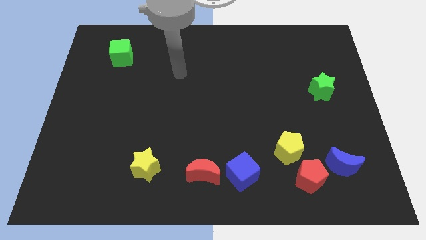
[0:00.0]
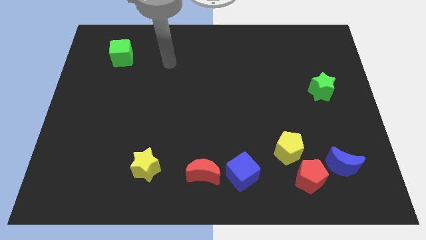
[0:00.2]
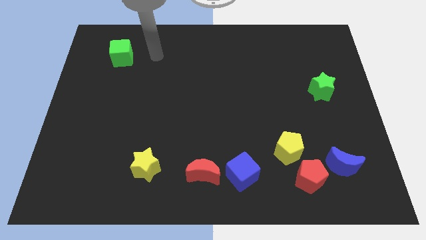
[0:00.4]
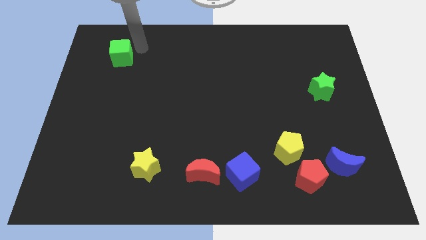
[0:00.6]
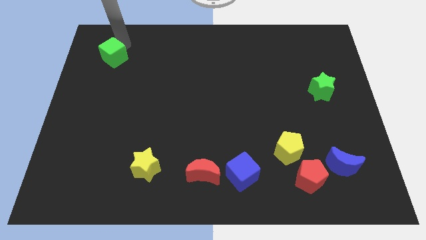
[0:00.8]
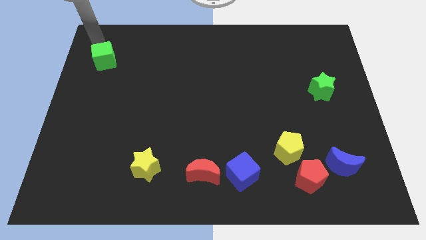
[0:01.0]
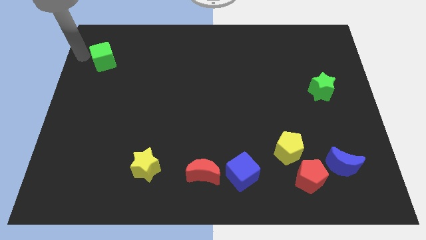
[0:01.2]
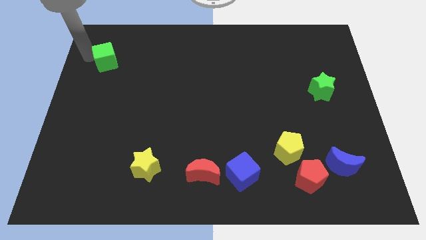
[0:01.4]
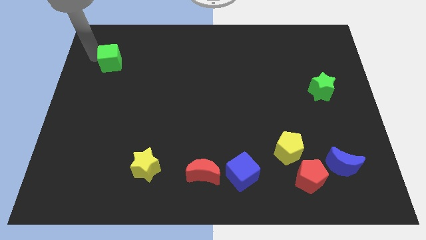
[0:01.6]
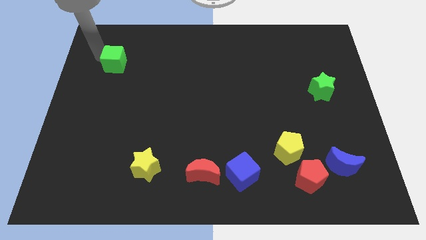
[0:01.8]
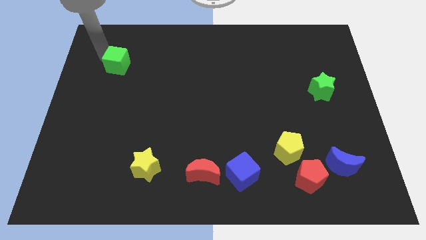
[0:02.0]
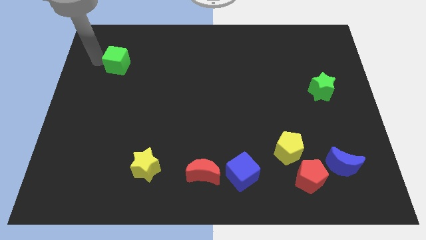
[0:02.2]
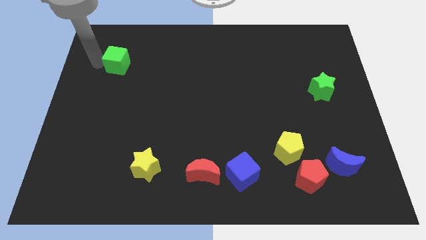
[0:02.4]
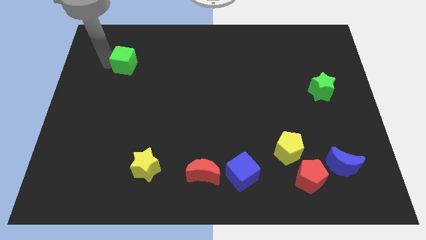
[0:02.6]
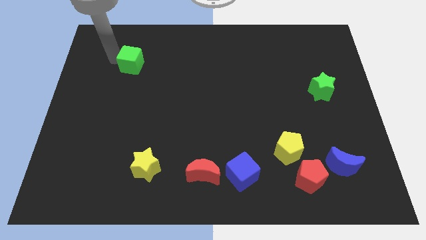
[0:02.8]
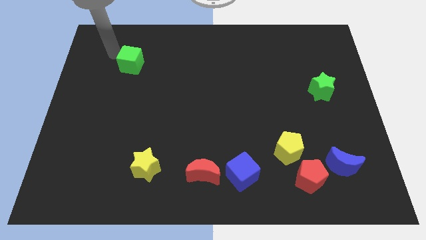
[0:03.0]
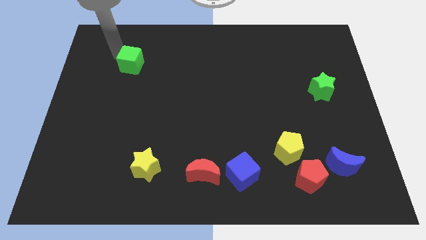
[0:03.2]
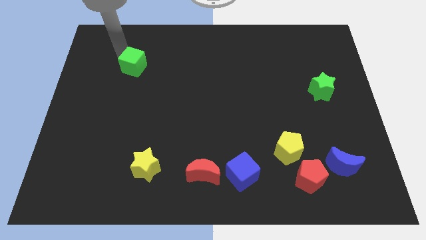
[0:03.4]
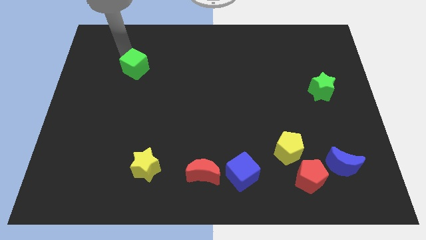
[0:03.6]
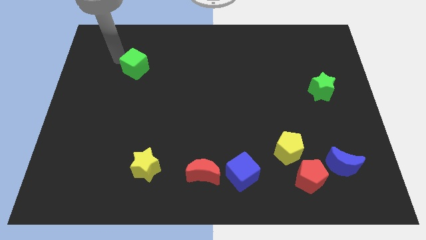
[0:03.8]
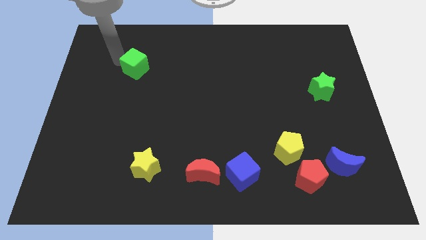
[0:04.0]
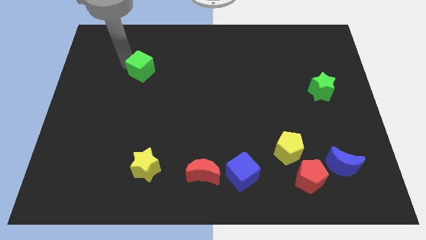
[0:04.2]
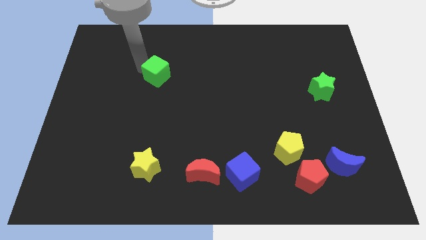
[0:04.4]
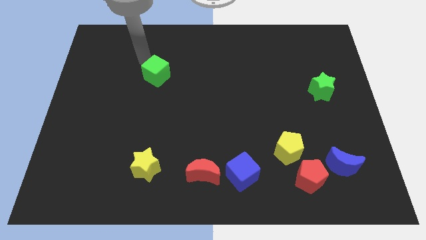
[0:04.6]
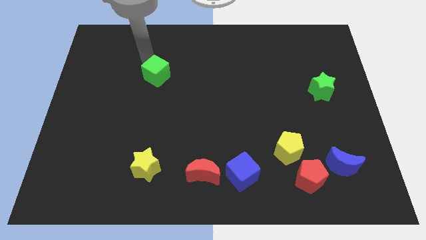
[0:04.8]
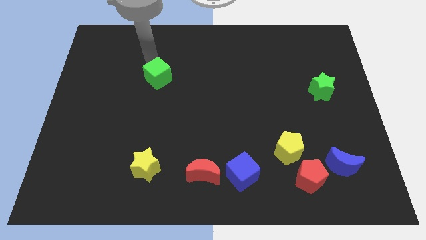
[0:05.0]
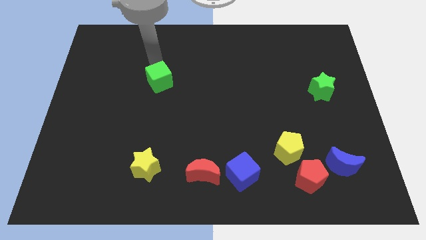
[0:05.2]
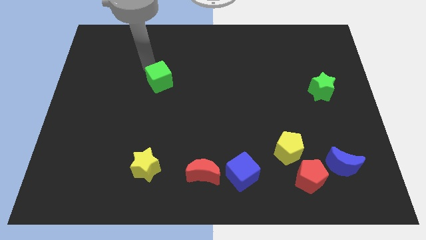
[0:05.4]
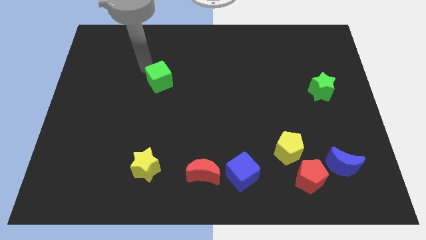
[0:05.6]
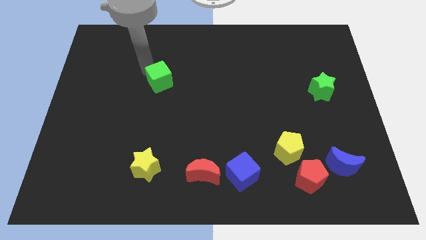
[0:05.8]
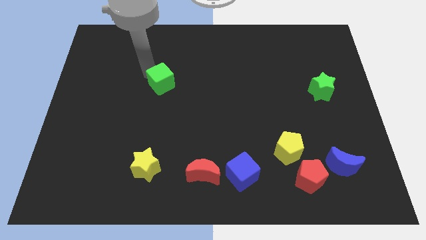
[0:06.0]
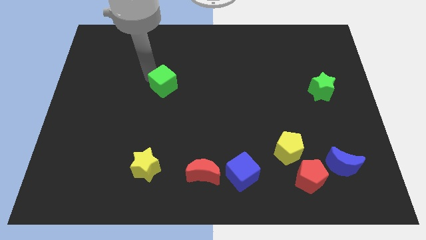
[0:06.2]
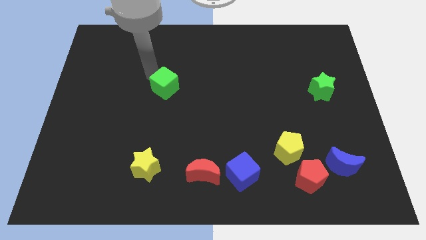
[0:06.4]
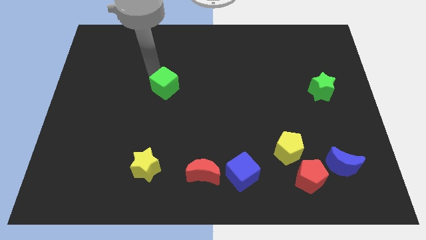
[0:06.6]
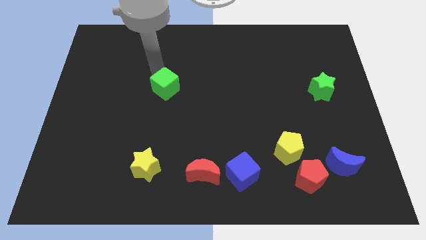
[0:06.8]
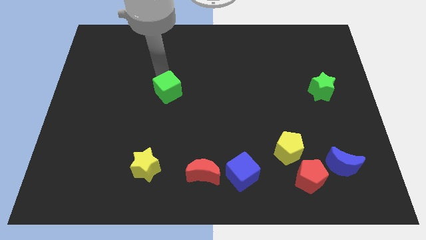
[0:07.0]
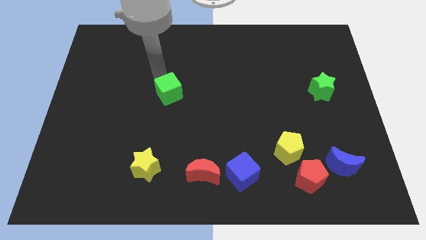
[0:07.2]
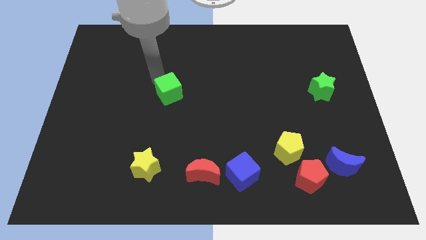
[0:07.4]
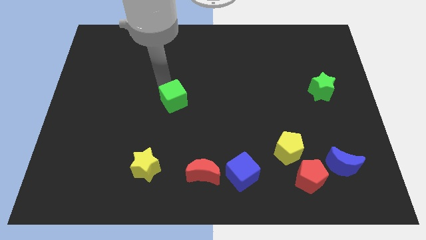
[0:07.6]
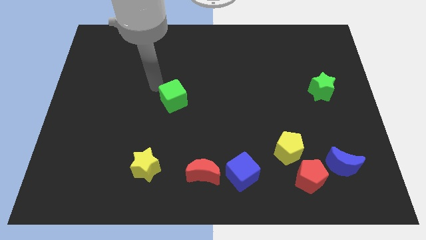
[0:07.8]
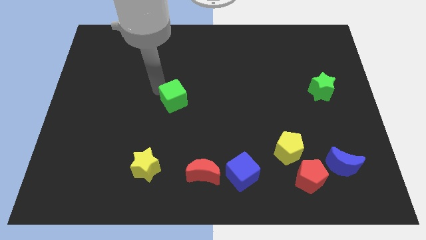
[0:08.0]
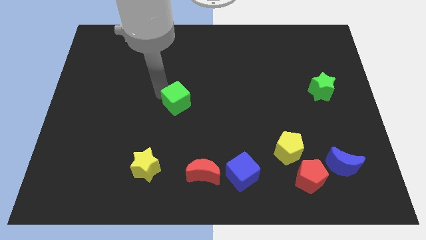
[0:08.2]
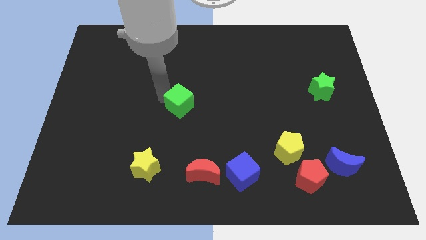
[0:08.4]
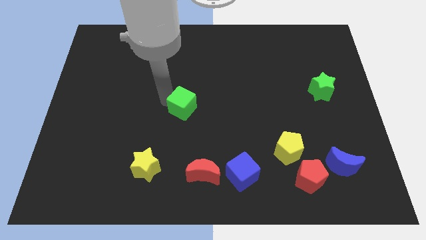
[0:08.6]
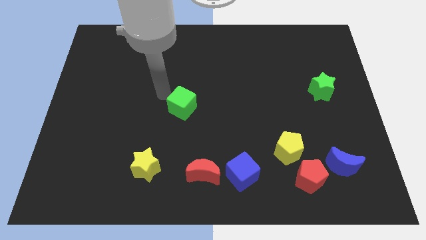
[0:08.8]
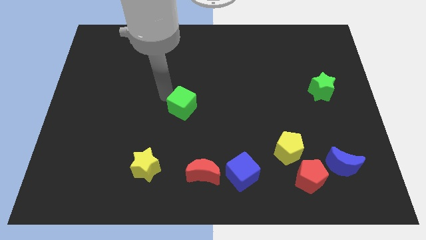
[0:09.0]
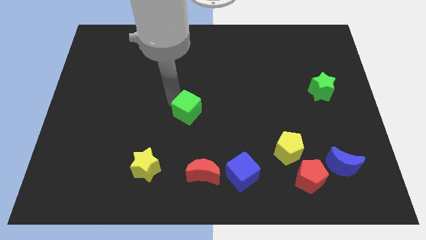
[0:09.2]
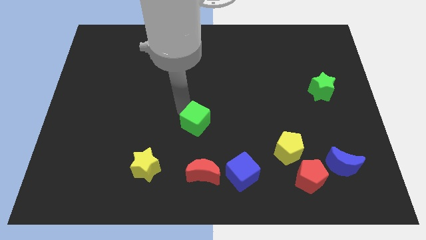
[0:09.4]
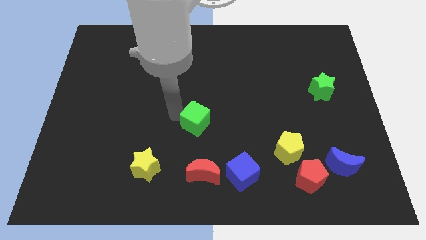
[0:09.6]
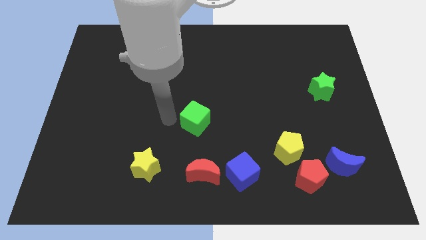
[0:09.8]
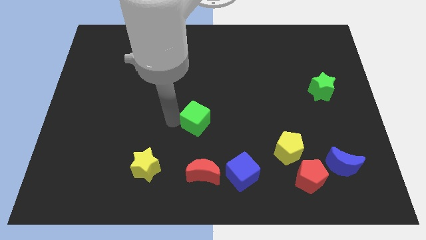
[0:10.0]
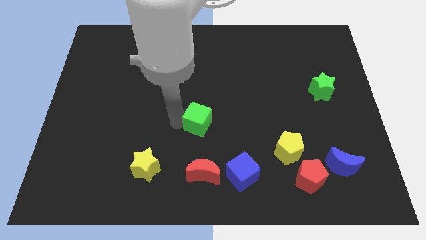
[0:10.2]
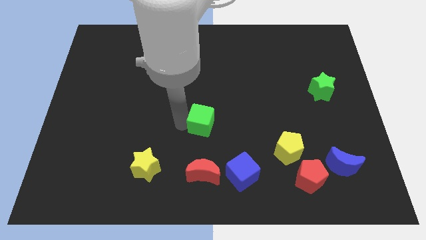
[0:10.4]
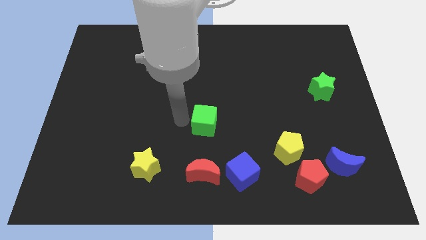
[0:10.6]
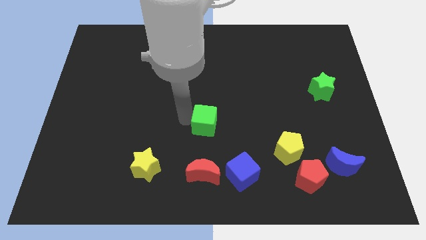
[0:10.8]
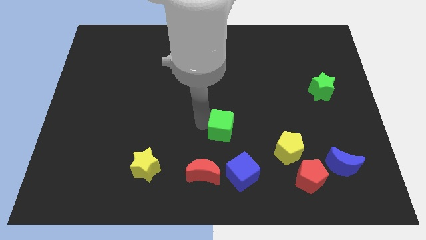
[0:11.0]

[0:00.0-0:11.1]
put the green cube to the top side of the blue cube

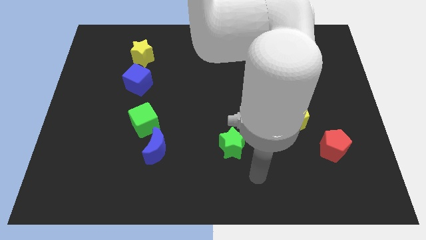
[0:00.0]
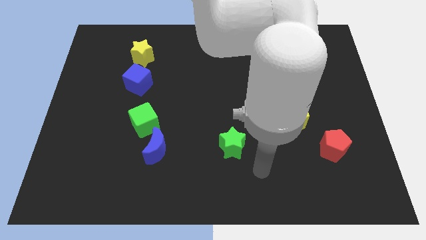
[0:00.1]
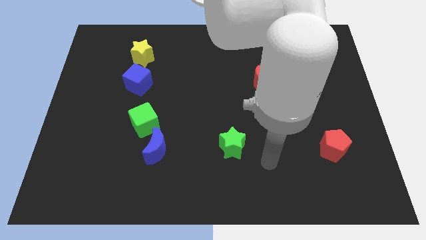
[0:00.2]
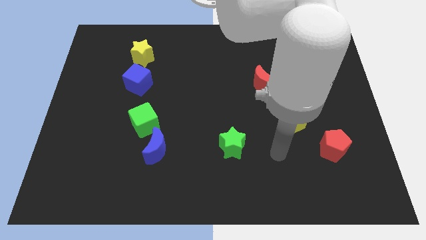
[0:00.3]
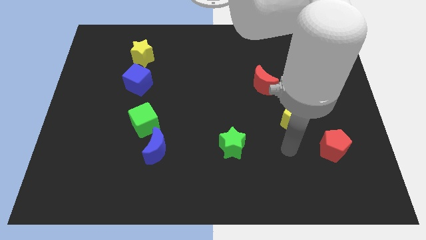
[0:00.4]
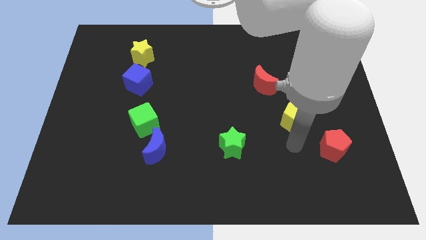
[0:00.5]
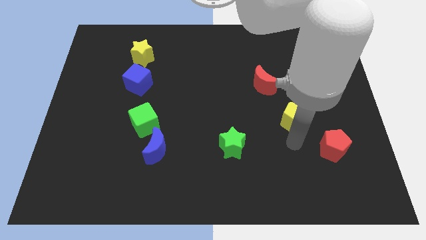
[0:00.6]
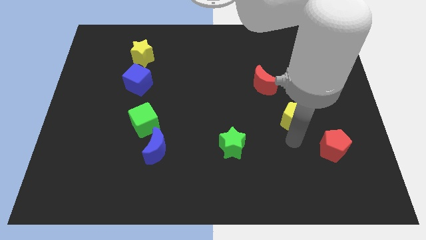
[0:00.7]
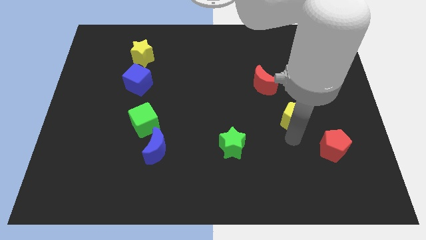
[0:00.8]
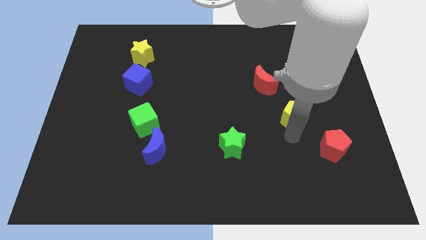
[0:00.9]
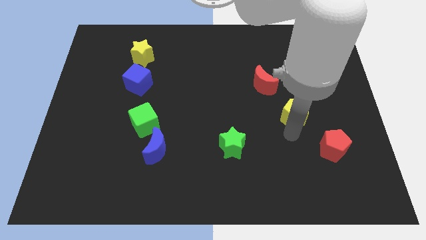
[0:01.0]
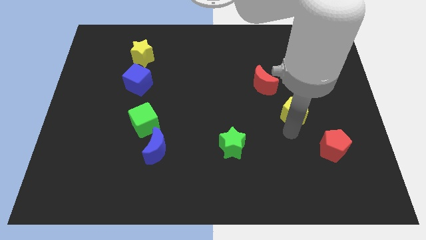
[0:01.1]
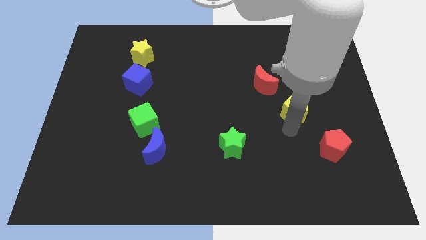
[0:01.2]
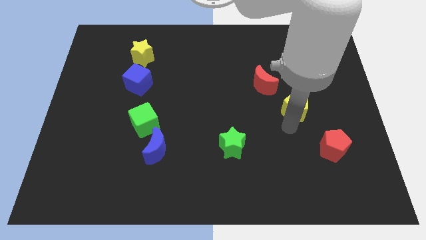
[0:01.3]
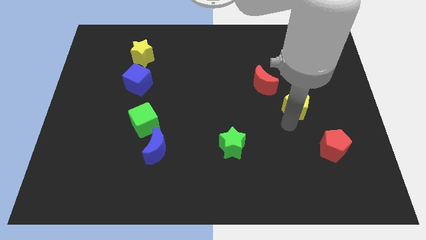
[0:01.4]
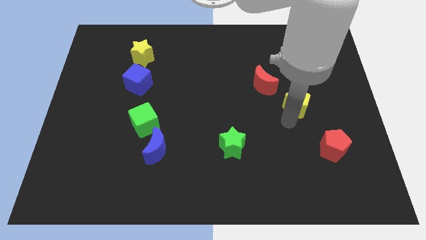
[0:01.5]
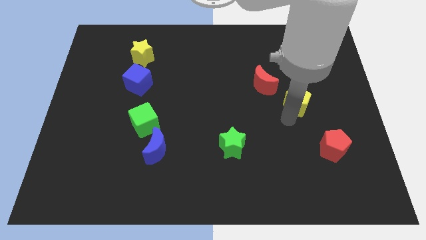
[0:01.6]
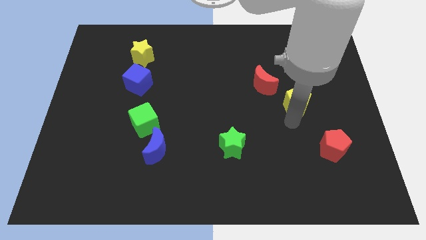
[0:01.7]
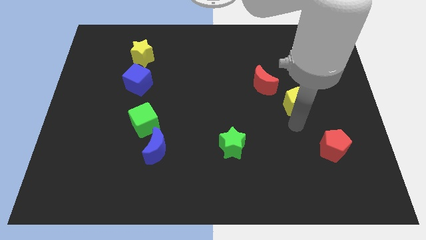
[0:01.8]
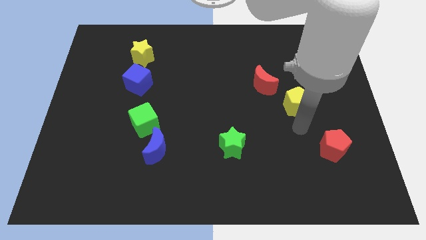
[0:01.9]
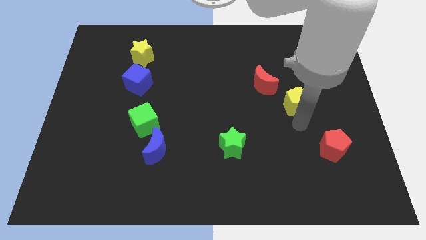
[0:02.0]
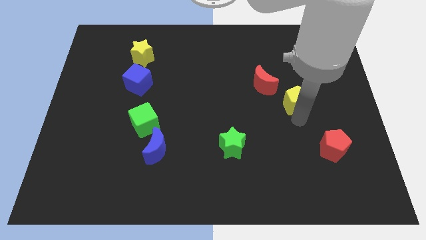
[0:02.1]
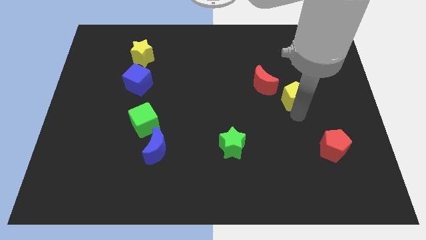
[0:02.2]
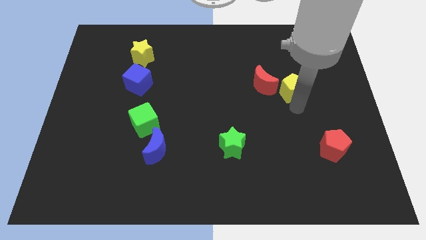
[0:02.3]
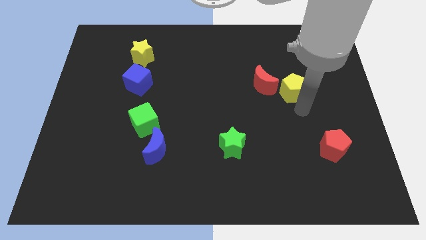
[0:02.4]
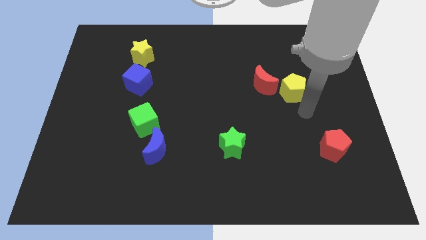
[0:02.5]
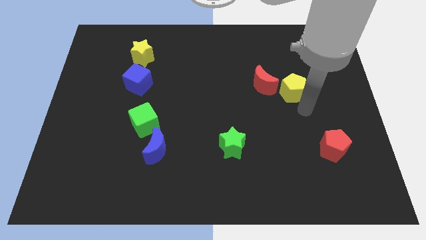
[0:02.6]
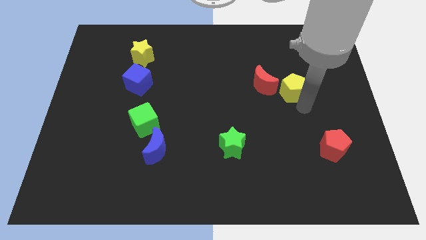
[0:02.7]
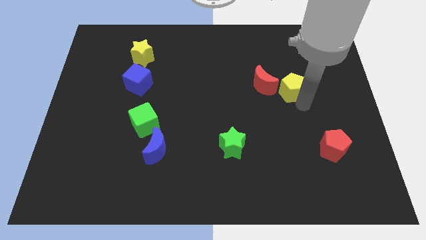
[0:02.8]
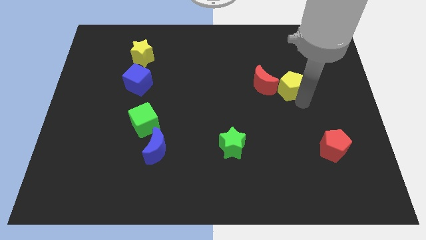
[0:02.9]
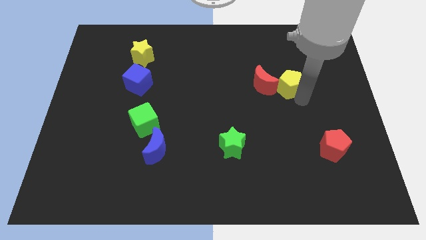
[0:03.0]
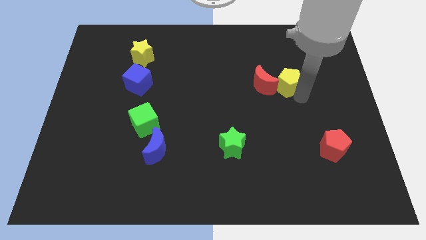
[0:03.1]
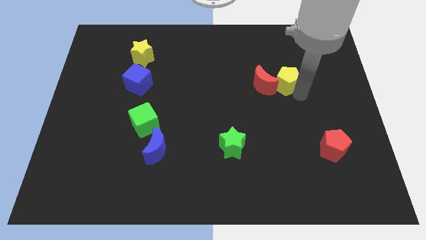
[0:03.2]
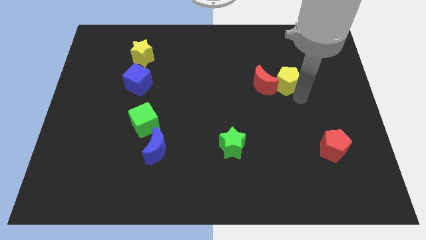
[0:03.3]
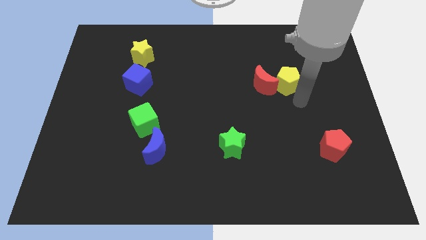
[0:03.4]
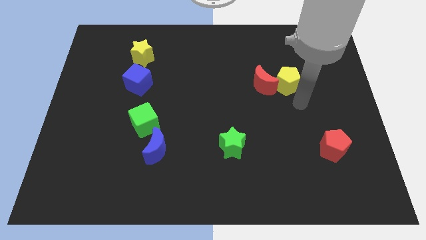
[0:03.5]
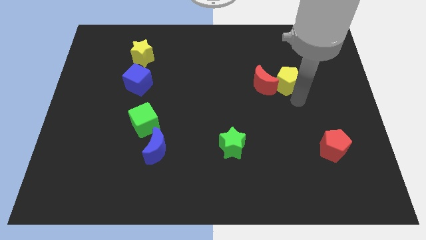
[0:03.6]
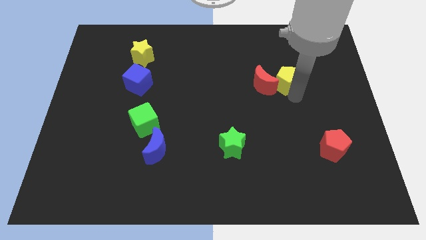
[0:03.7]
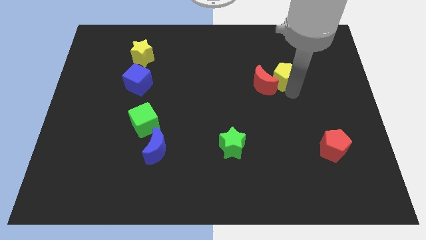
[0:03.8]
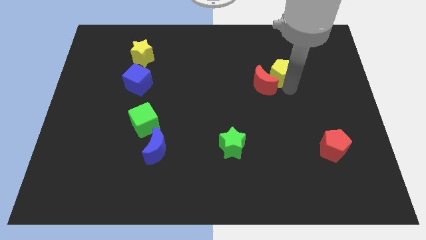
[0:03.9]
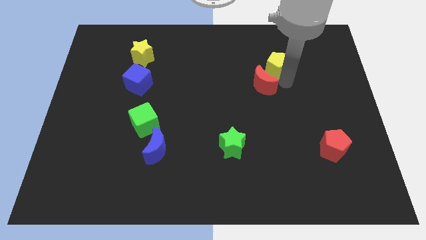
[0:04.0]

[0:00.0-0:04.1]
push the yellow pentagon above the red moon
